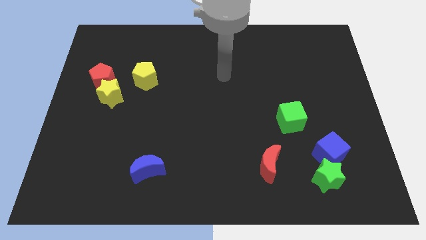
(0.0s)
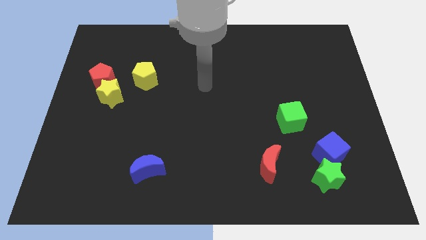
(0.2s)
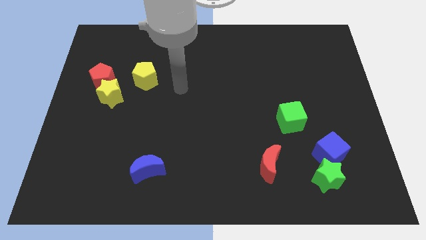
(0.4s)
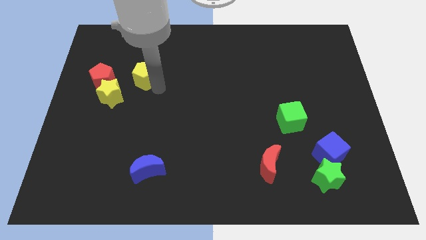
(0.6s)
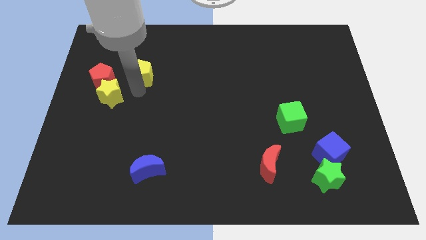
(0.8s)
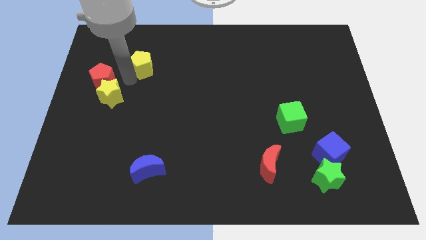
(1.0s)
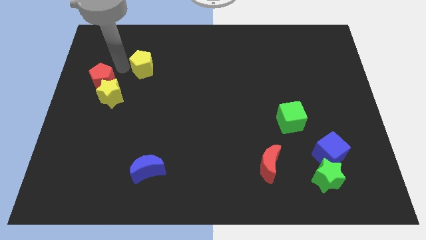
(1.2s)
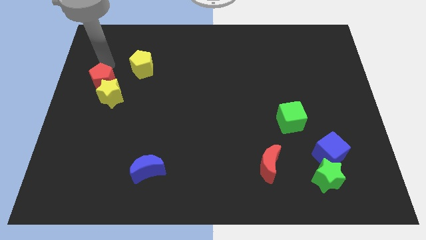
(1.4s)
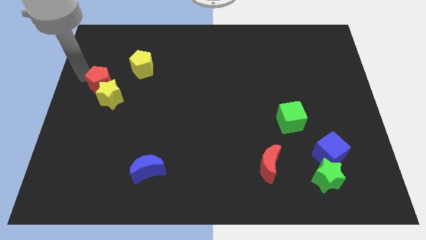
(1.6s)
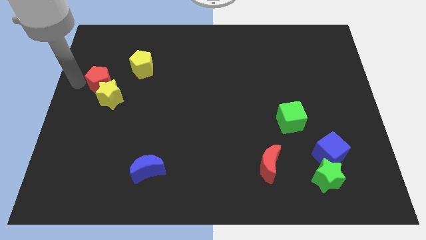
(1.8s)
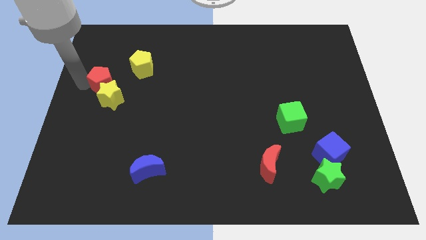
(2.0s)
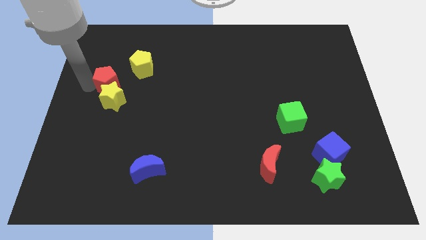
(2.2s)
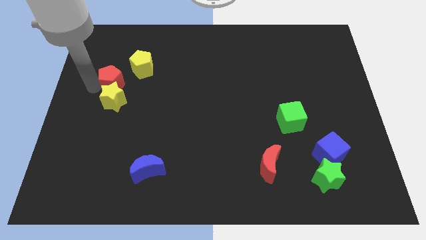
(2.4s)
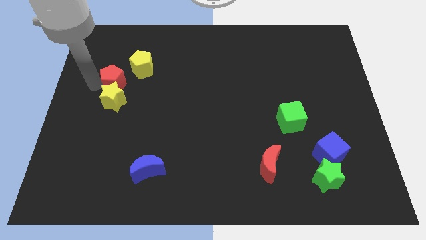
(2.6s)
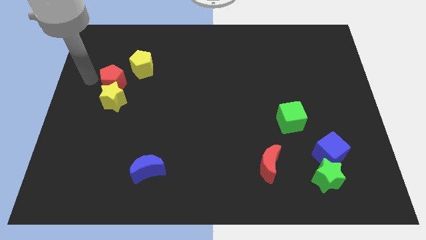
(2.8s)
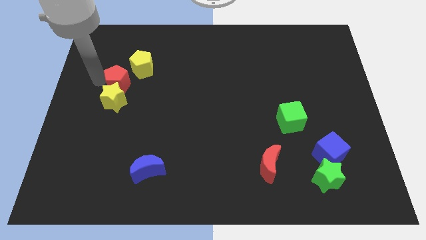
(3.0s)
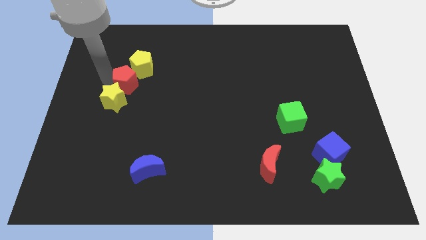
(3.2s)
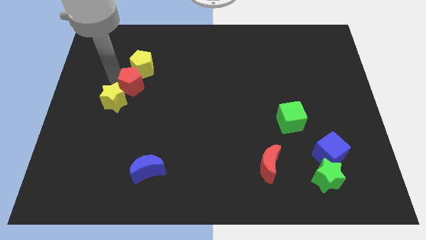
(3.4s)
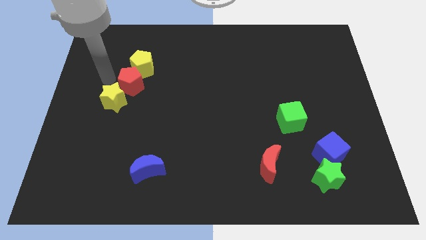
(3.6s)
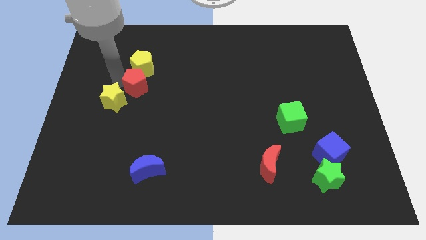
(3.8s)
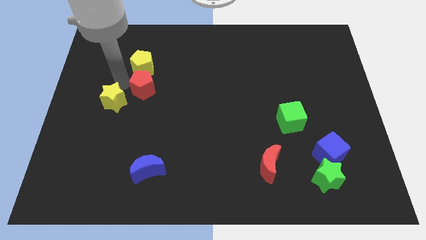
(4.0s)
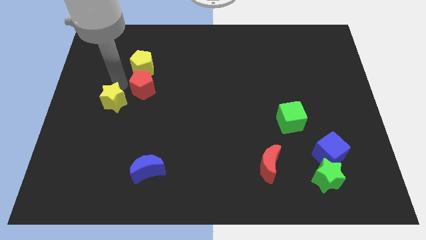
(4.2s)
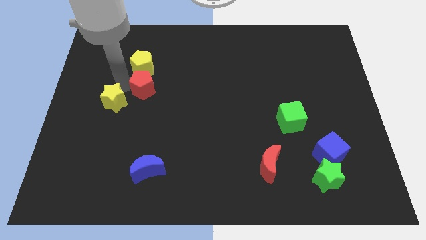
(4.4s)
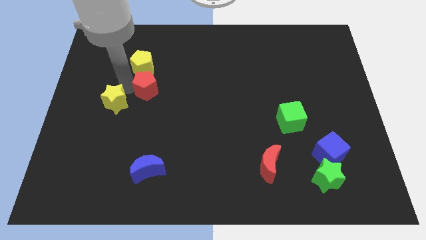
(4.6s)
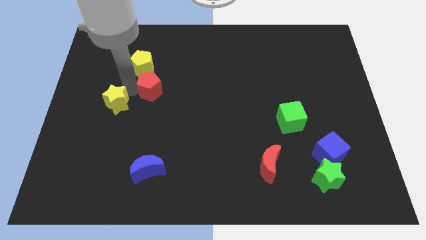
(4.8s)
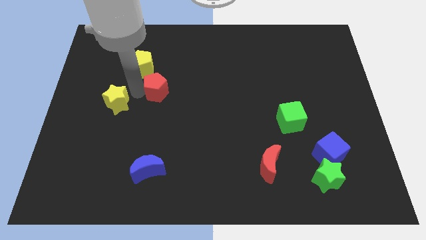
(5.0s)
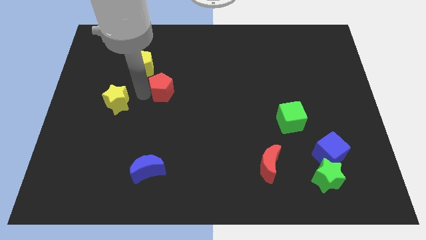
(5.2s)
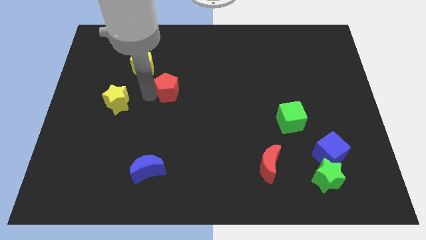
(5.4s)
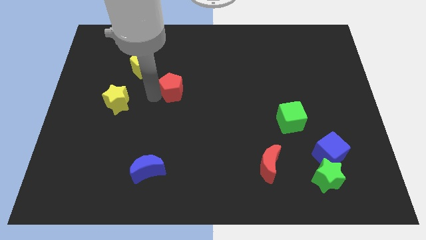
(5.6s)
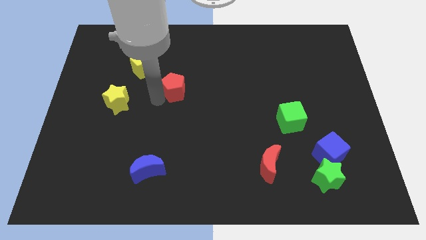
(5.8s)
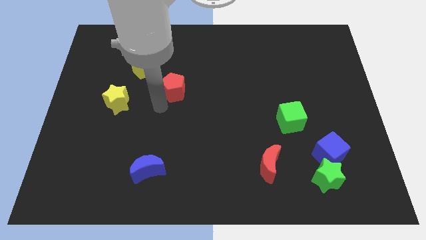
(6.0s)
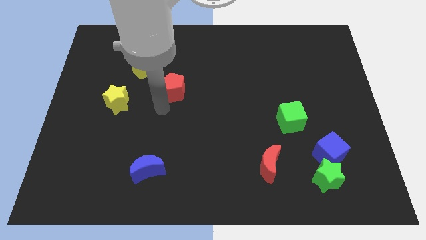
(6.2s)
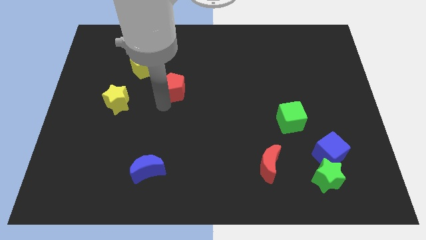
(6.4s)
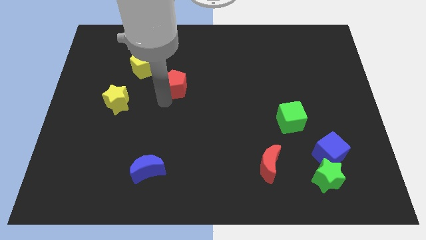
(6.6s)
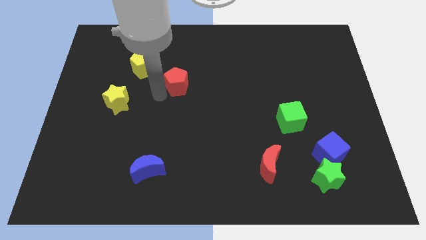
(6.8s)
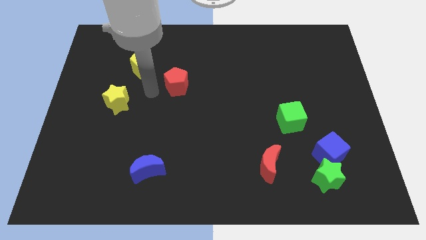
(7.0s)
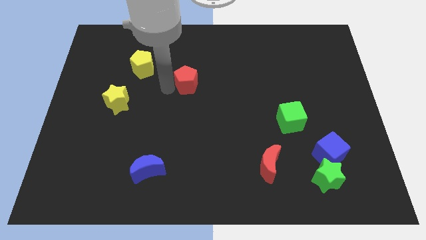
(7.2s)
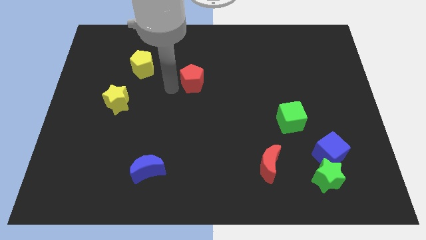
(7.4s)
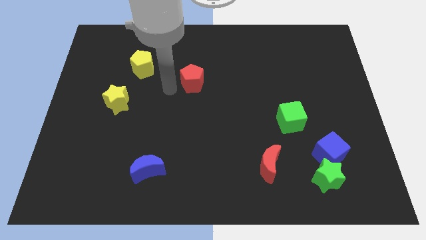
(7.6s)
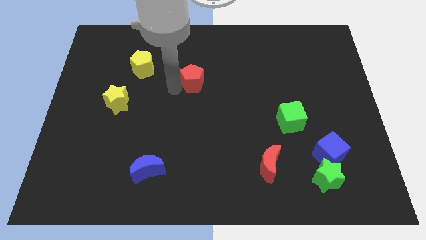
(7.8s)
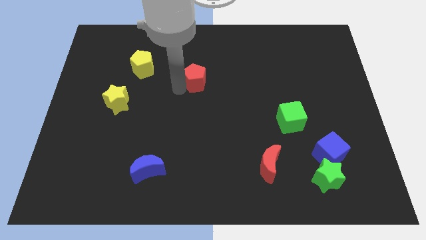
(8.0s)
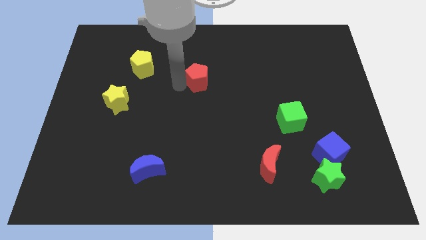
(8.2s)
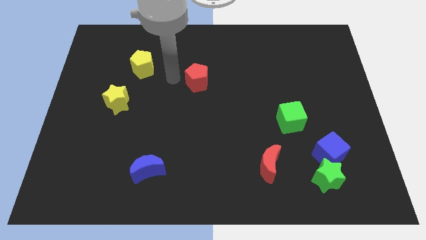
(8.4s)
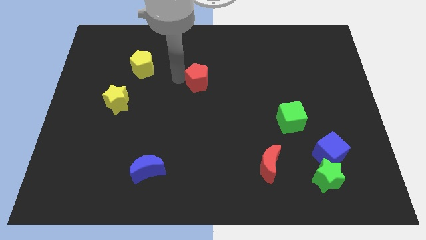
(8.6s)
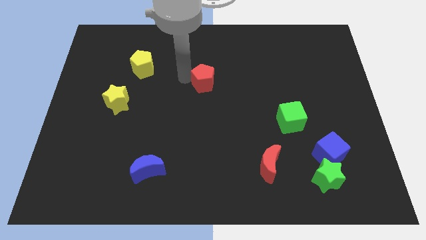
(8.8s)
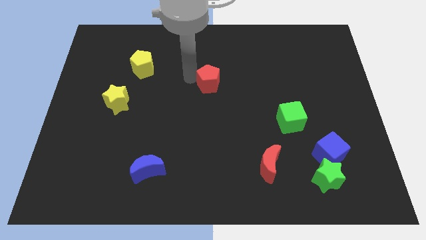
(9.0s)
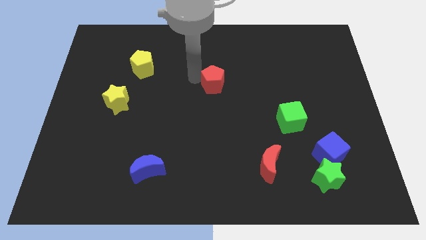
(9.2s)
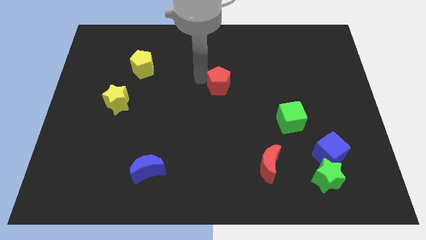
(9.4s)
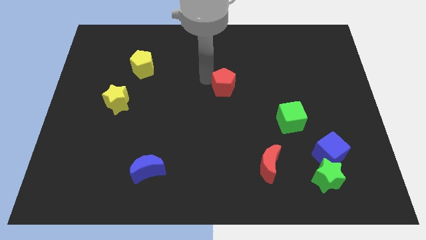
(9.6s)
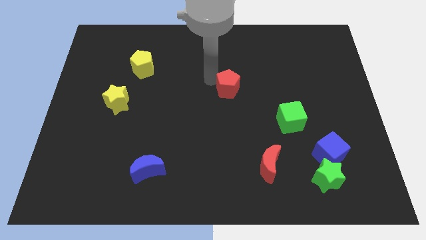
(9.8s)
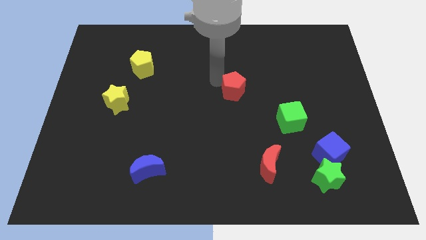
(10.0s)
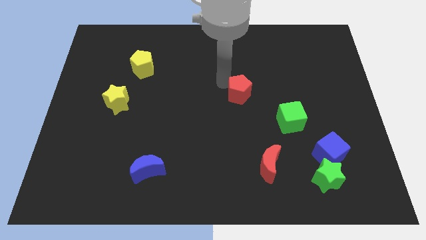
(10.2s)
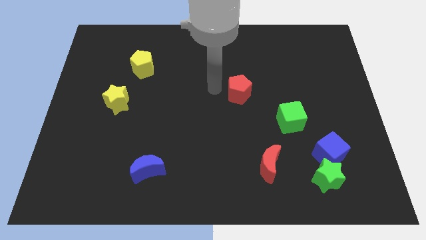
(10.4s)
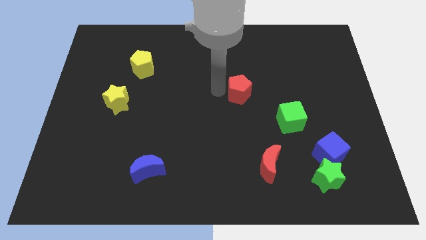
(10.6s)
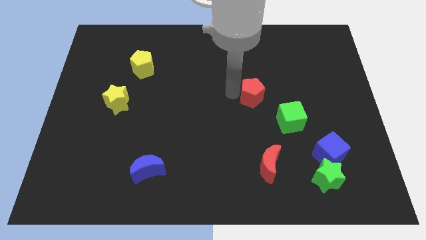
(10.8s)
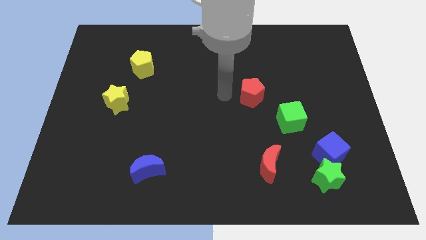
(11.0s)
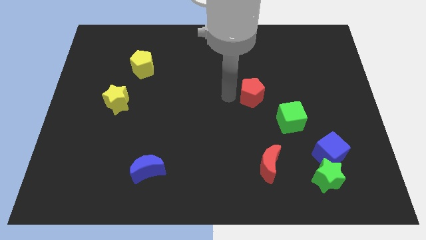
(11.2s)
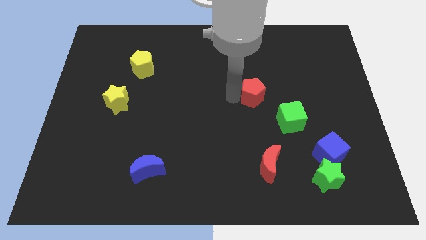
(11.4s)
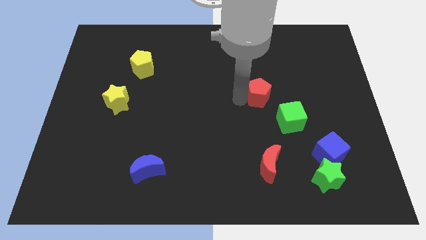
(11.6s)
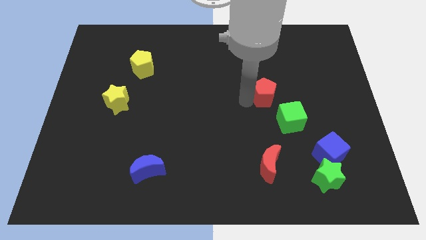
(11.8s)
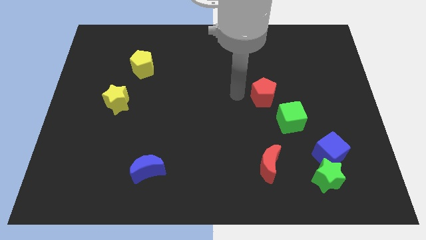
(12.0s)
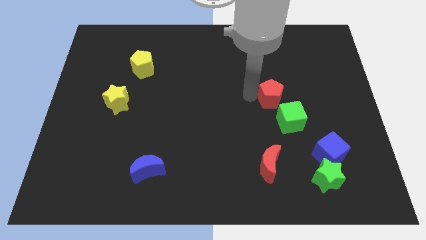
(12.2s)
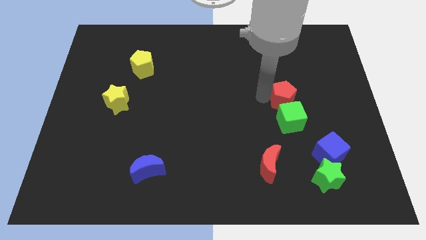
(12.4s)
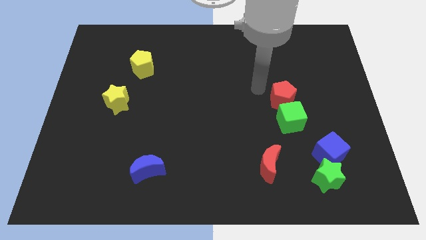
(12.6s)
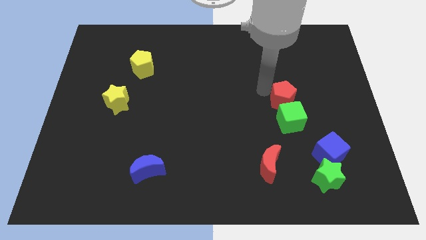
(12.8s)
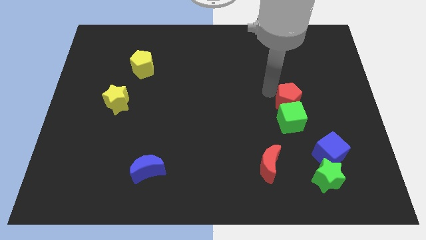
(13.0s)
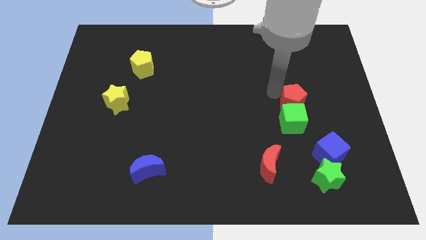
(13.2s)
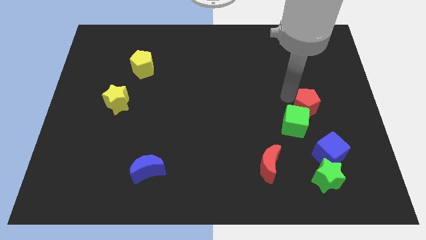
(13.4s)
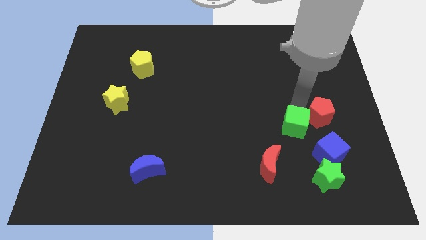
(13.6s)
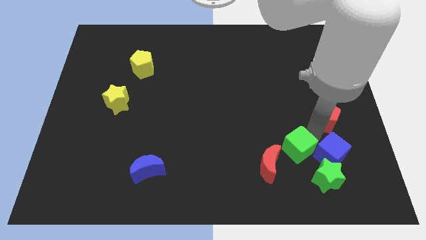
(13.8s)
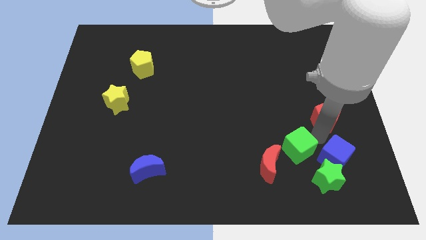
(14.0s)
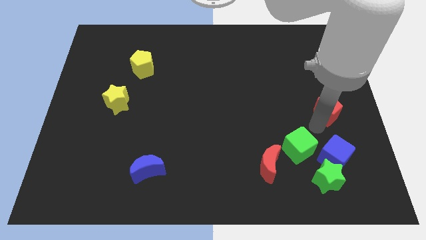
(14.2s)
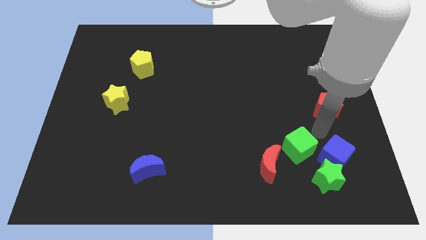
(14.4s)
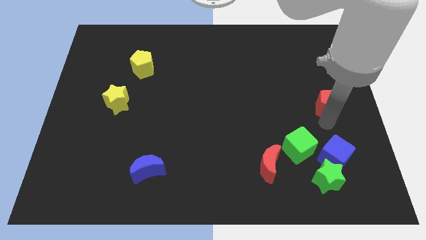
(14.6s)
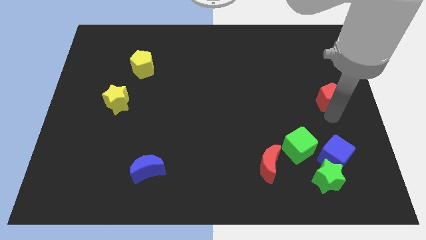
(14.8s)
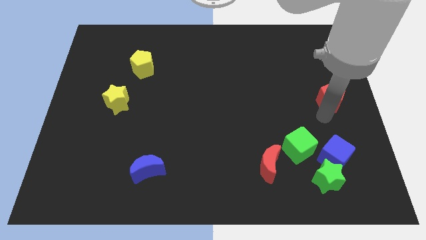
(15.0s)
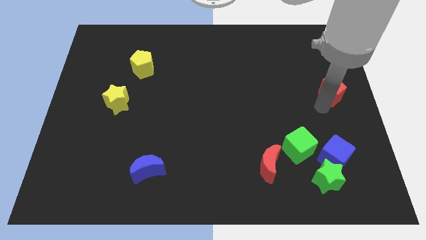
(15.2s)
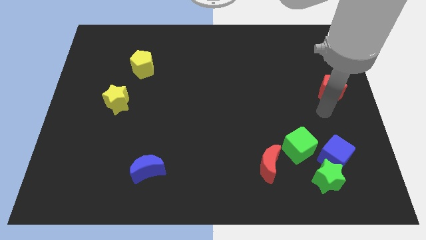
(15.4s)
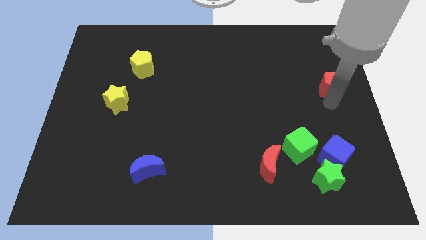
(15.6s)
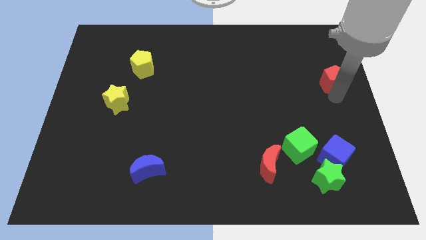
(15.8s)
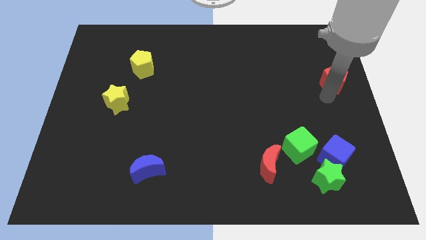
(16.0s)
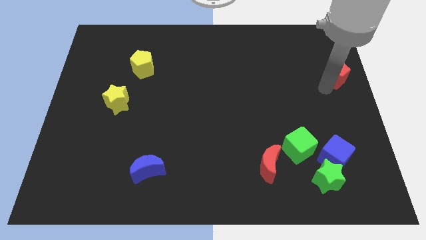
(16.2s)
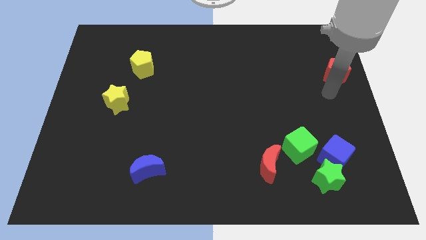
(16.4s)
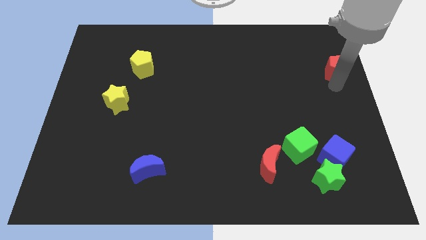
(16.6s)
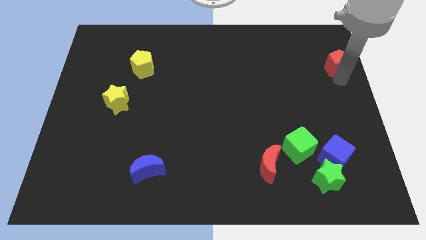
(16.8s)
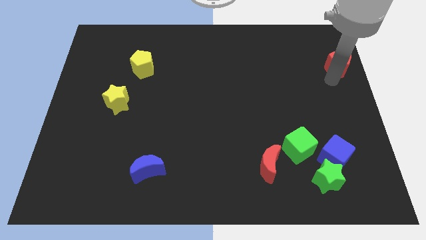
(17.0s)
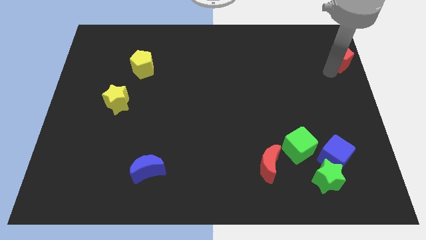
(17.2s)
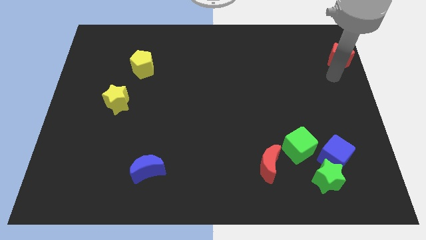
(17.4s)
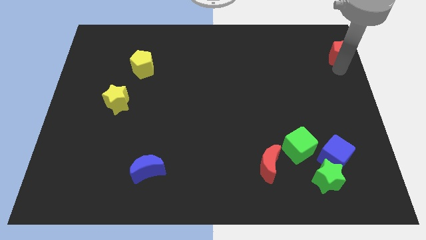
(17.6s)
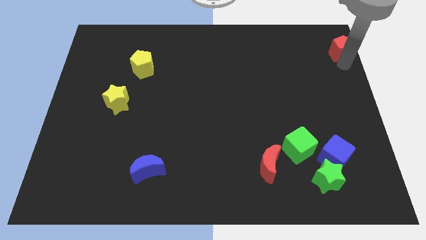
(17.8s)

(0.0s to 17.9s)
put the red pentagon to the upper right corner
